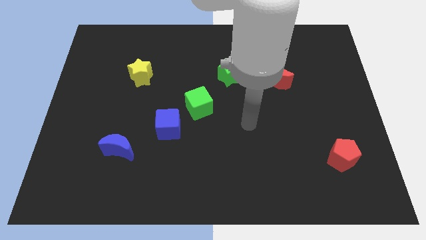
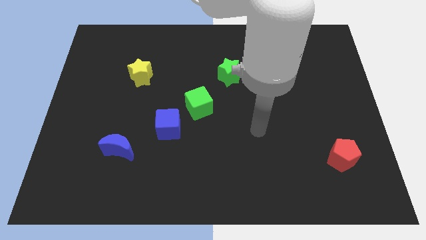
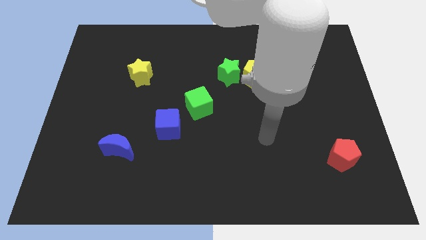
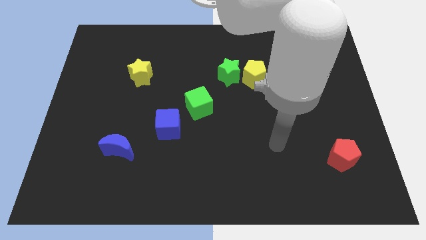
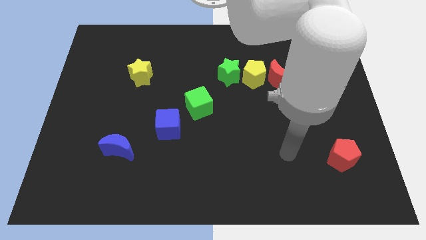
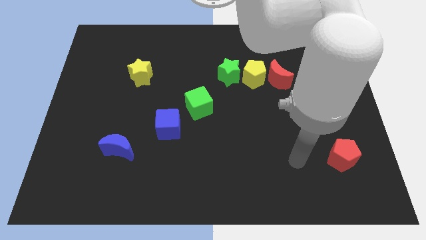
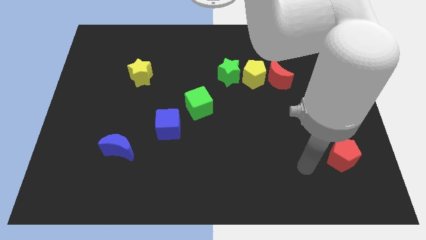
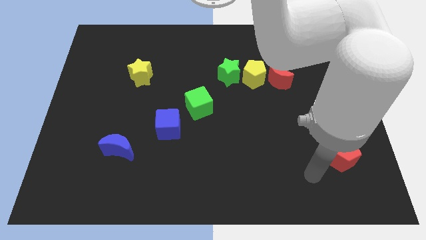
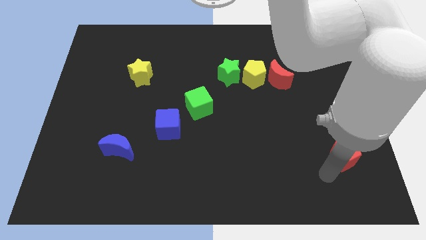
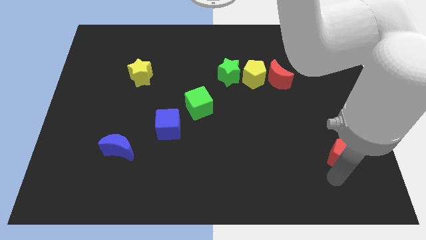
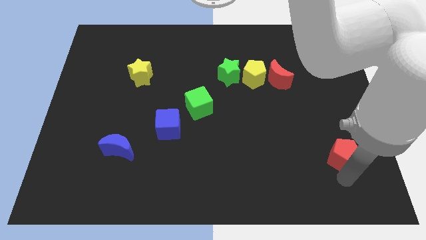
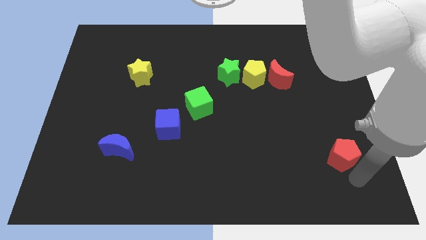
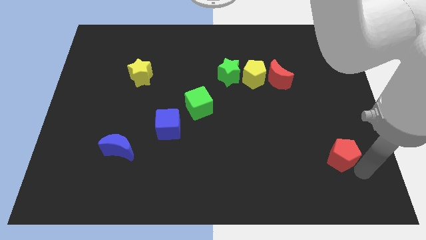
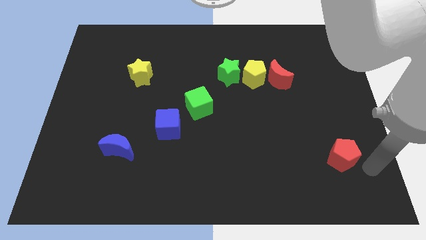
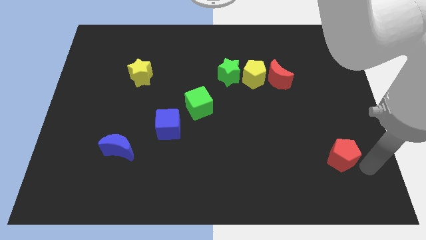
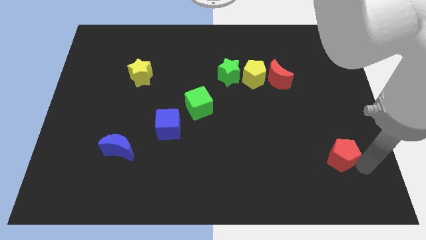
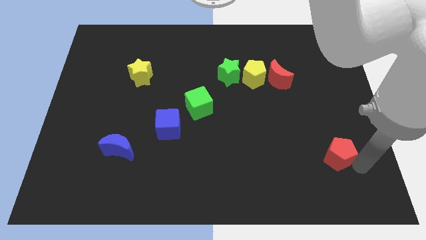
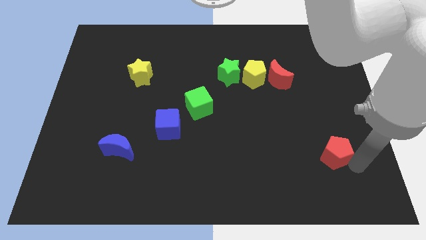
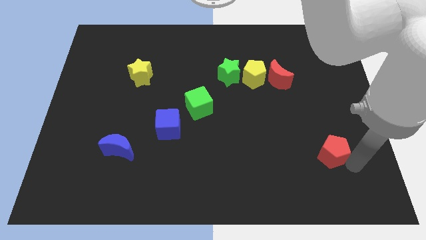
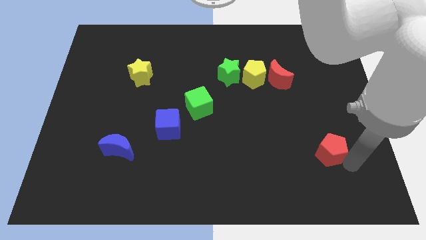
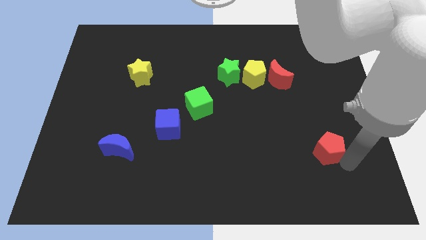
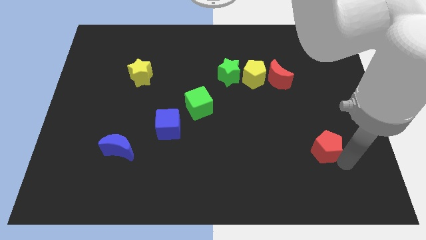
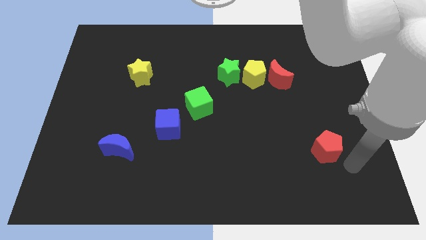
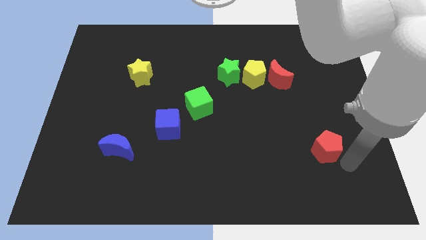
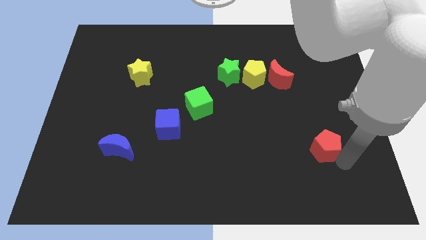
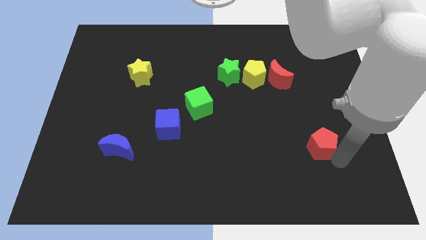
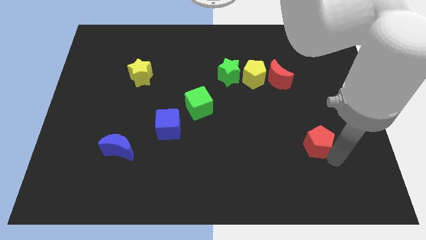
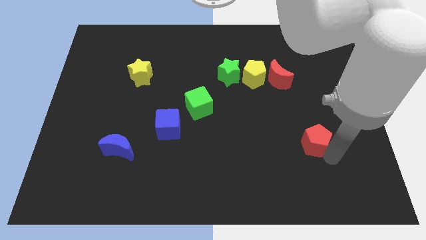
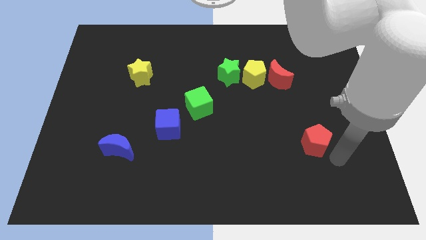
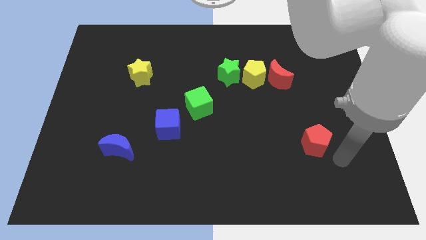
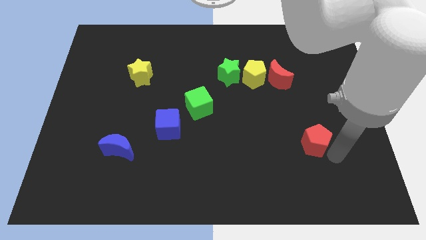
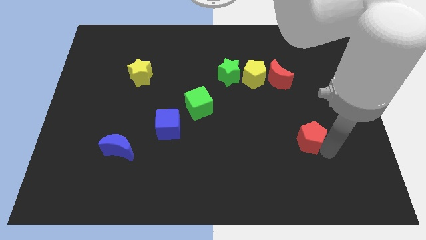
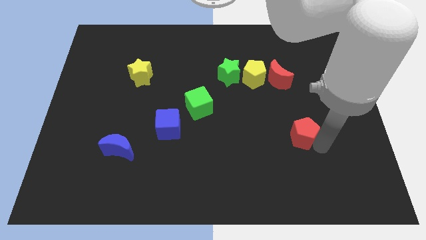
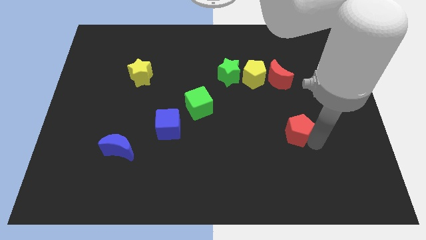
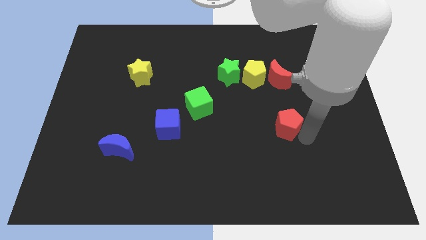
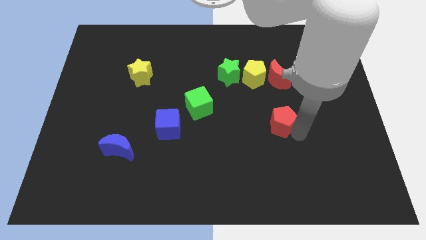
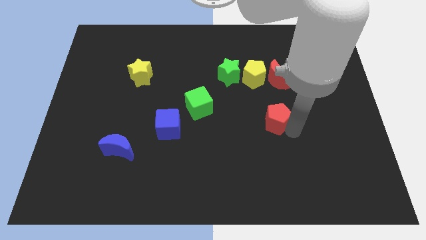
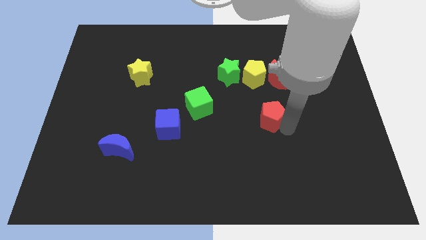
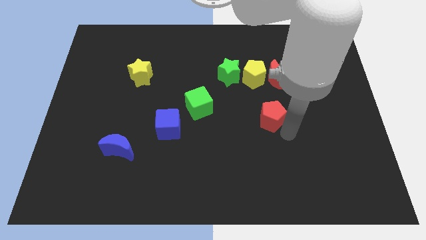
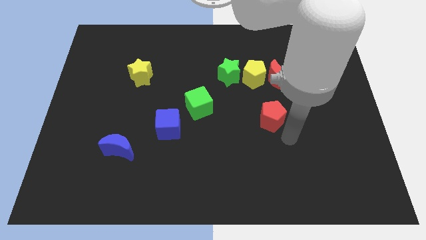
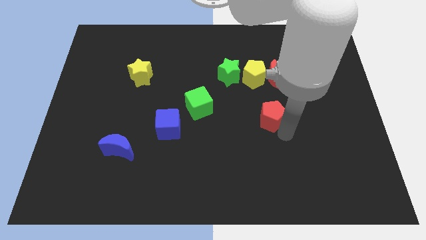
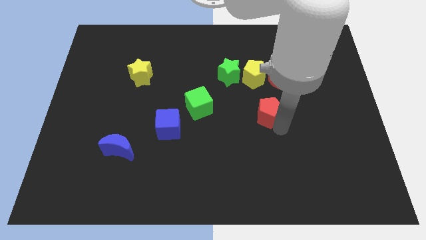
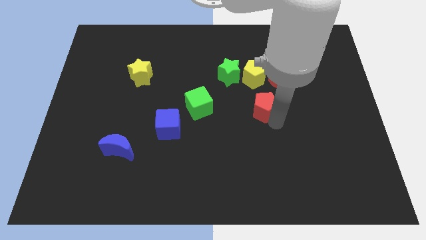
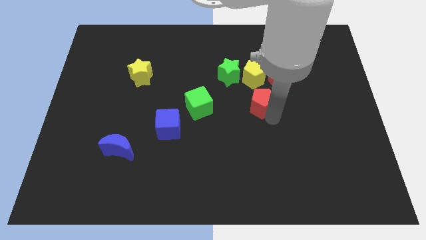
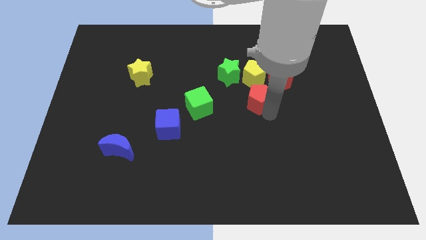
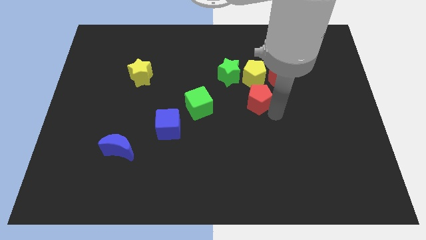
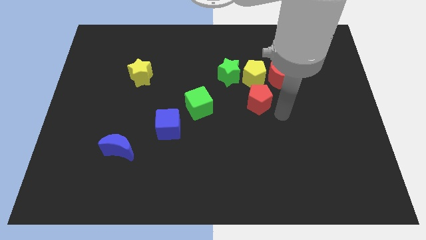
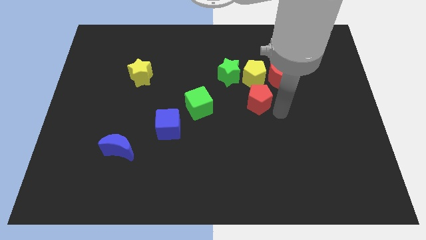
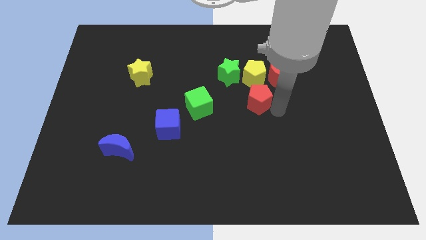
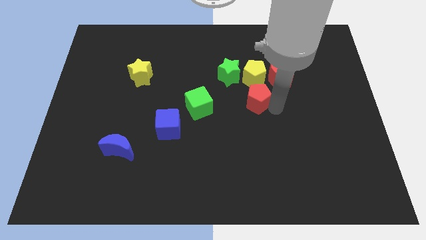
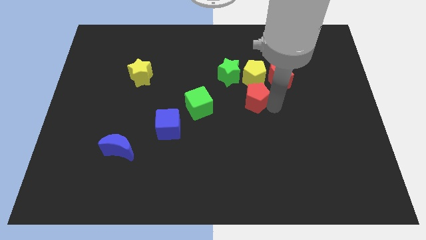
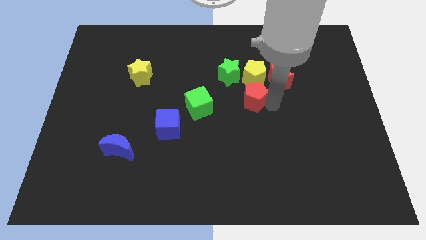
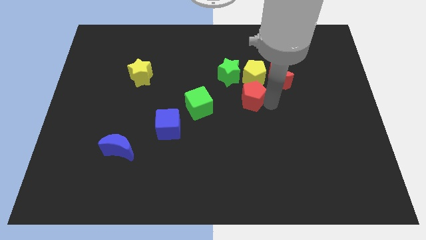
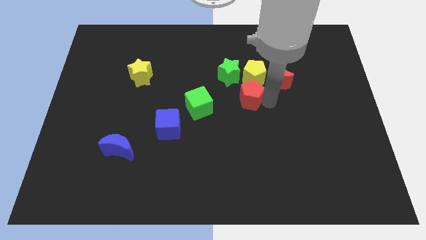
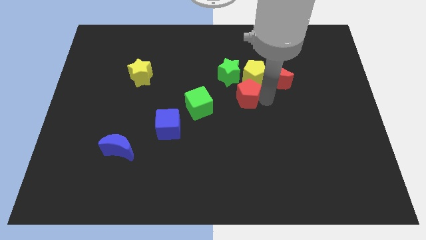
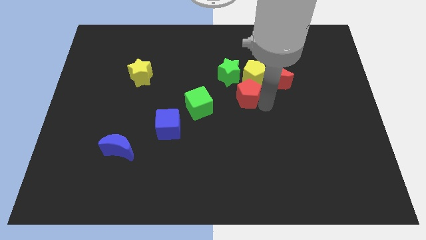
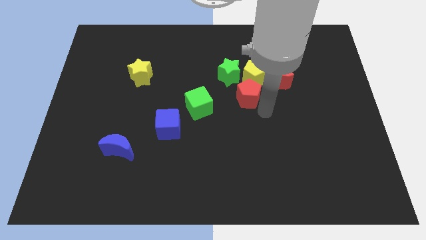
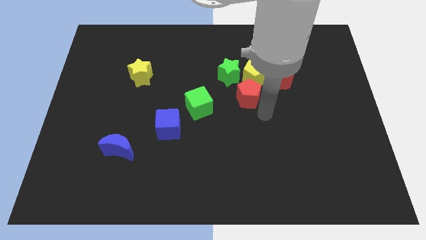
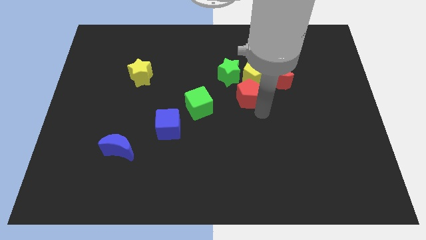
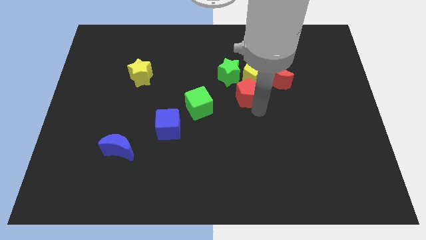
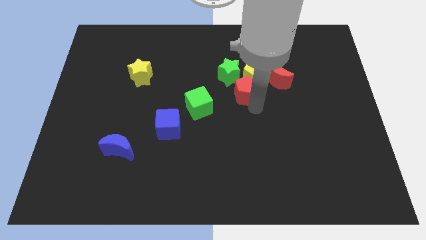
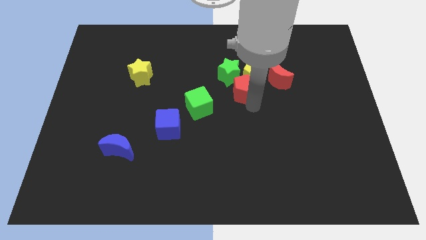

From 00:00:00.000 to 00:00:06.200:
push the red pentagon next to the green star
